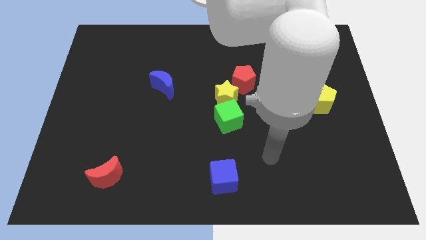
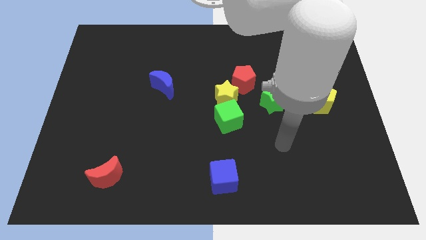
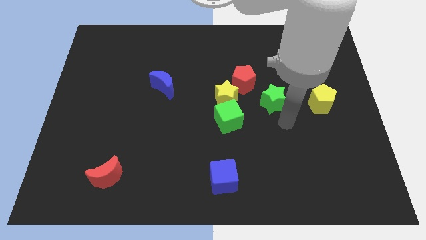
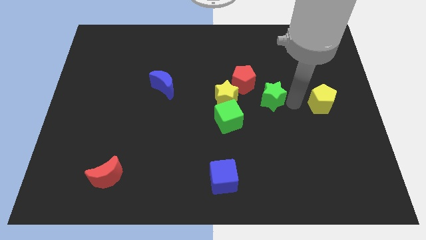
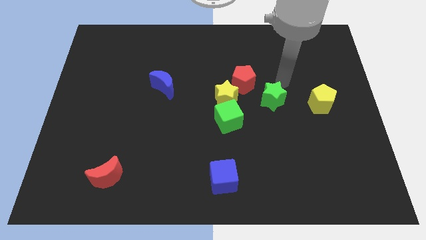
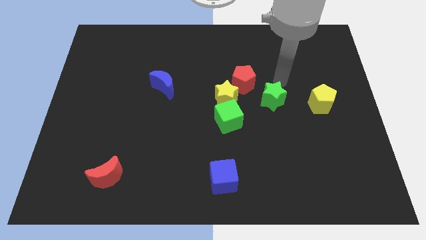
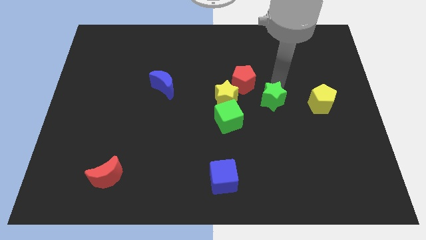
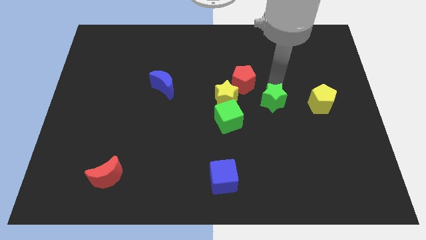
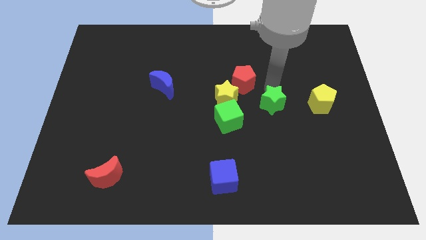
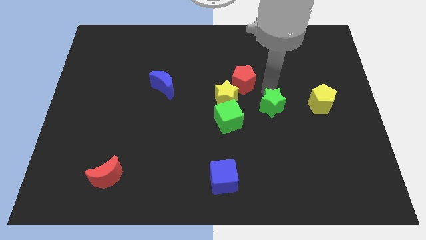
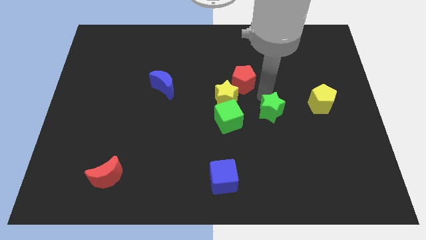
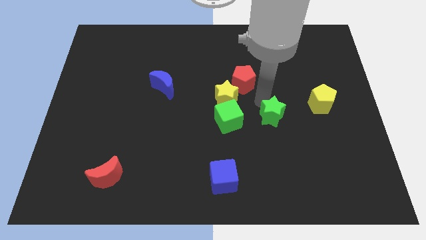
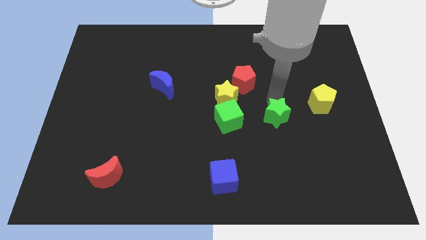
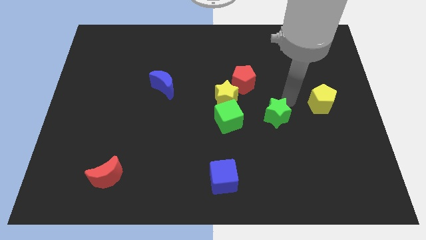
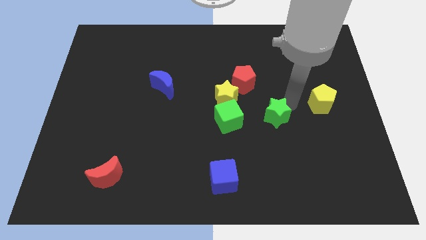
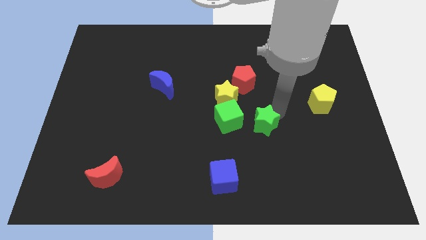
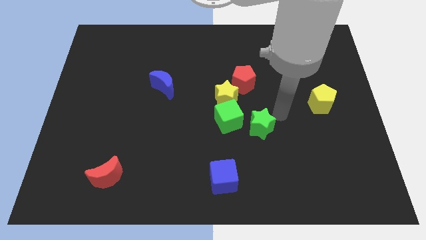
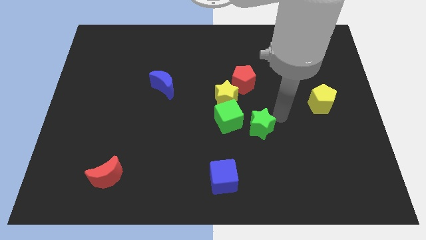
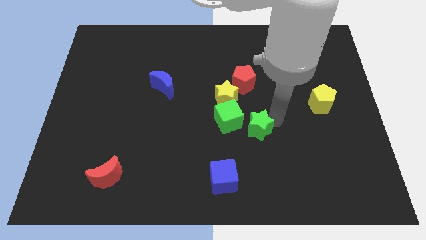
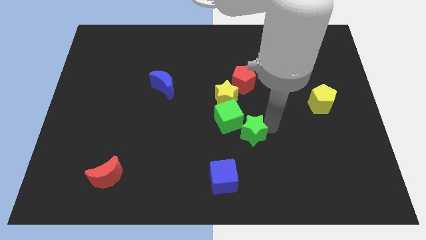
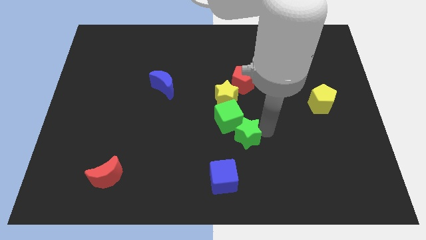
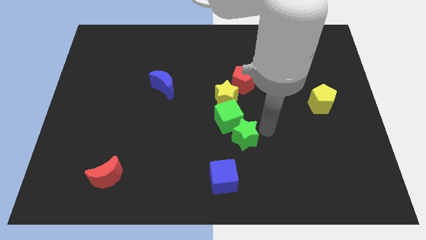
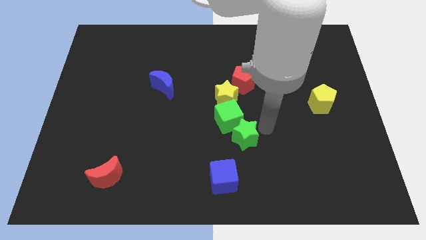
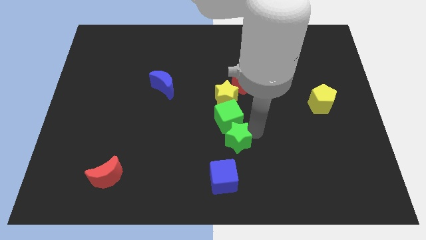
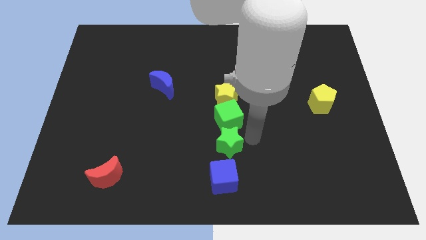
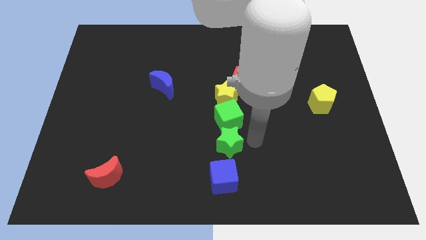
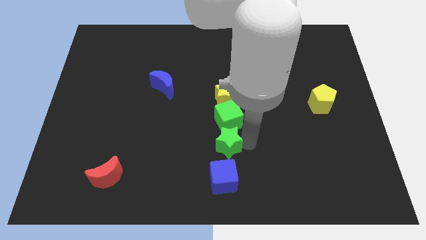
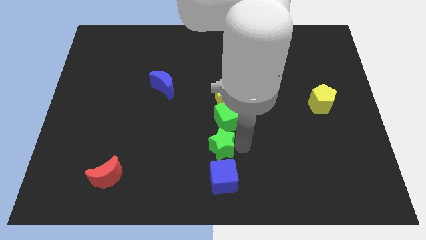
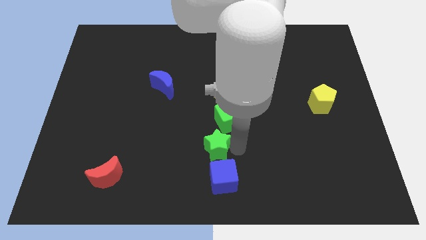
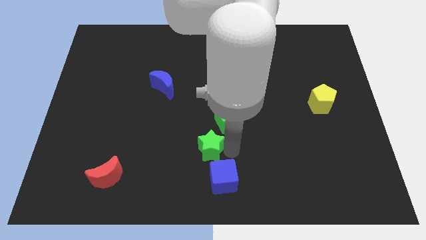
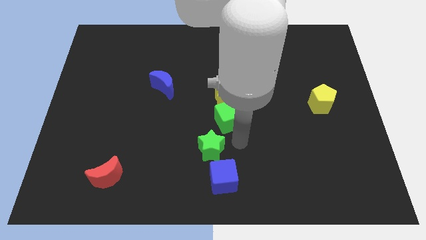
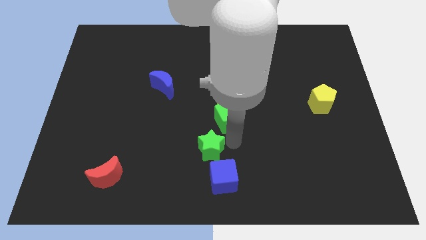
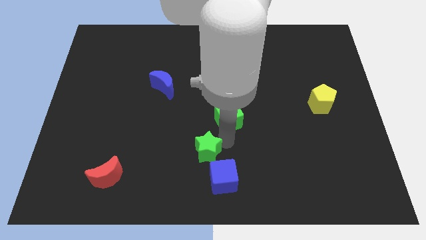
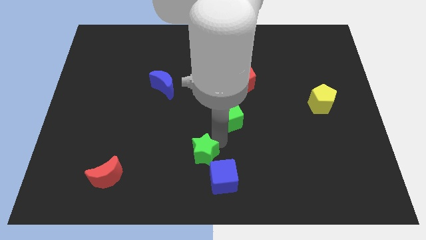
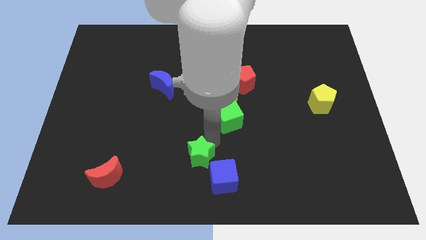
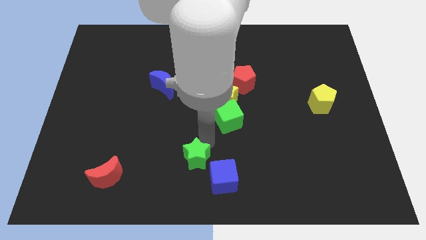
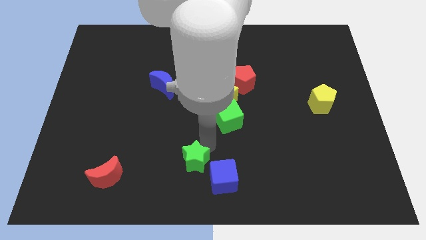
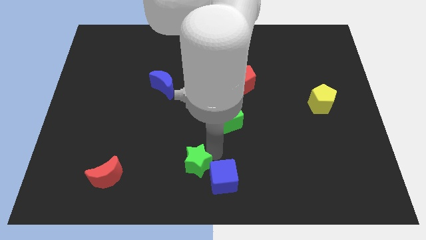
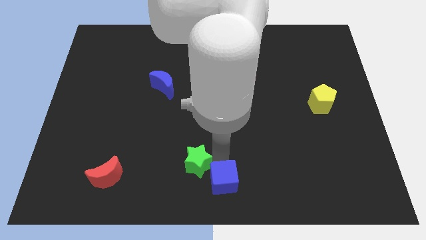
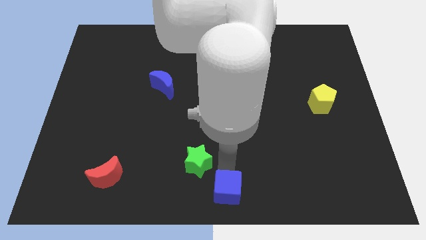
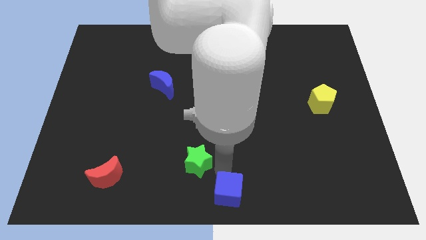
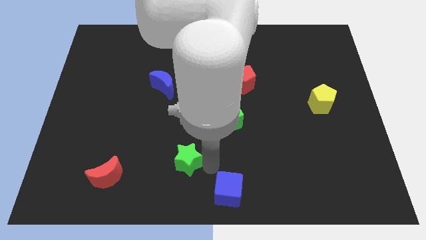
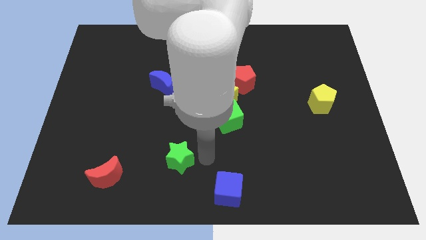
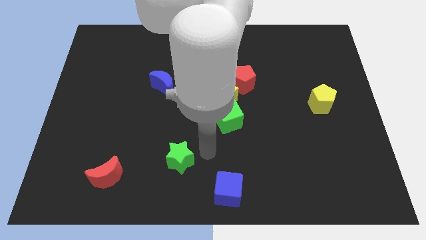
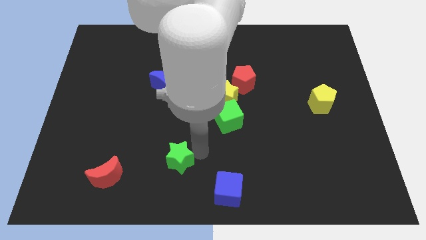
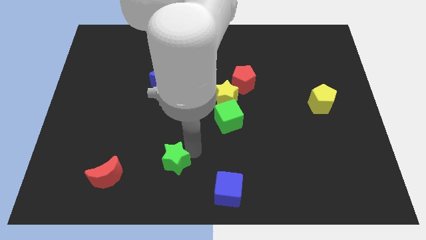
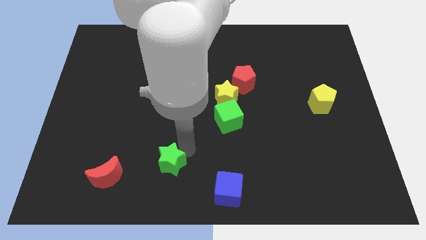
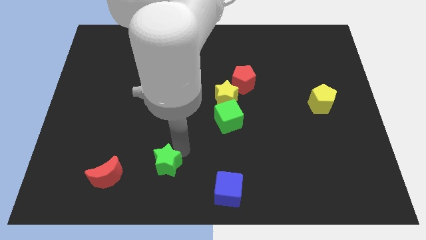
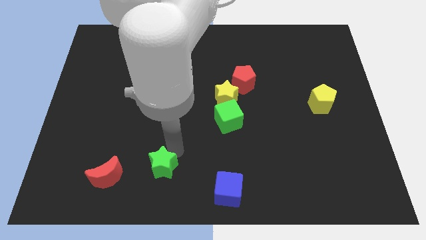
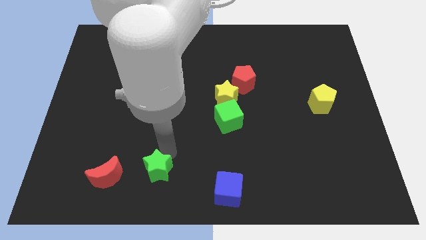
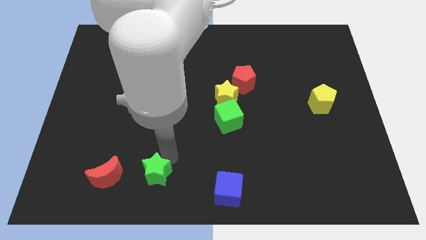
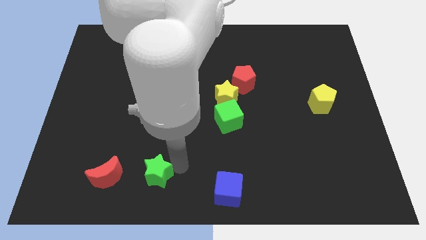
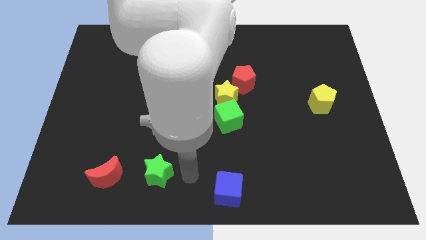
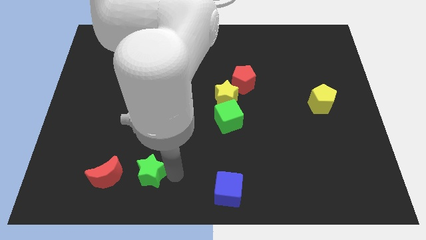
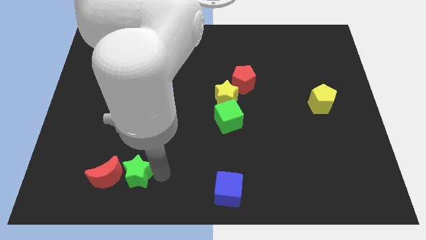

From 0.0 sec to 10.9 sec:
put the green star close to the red moon

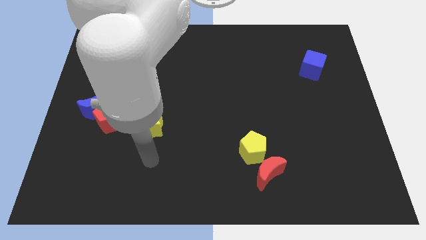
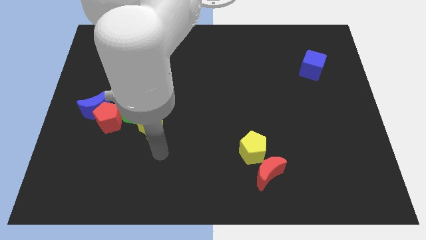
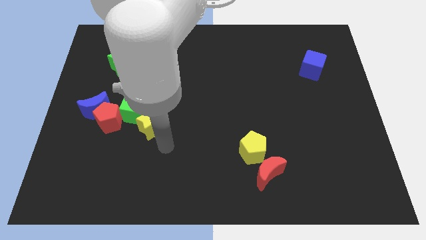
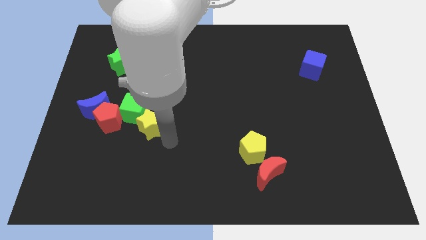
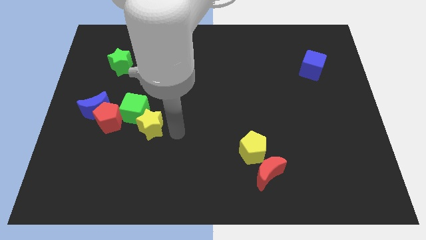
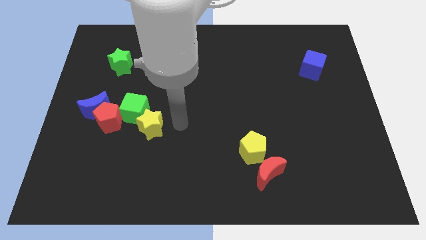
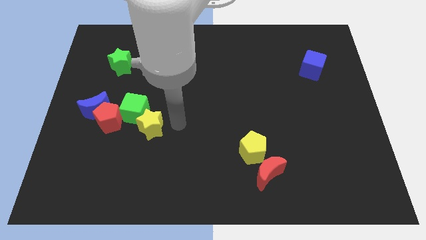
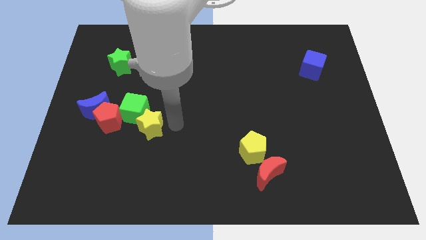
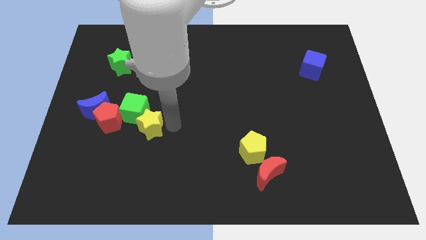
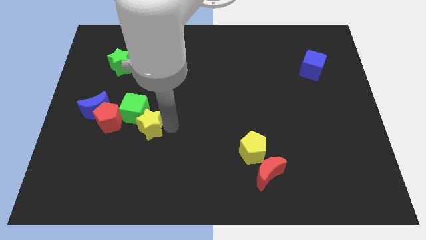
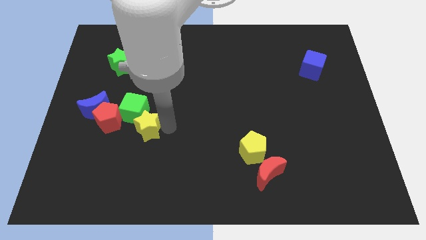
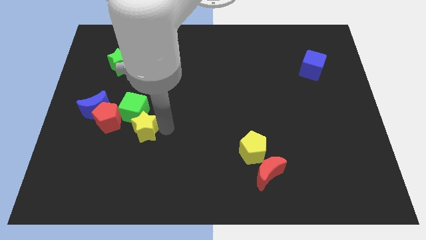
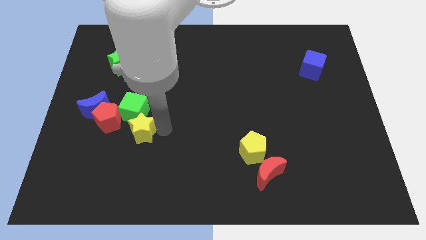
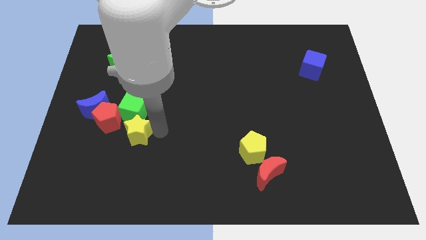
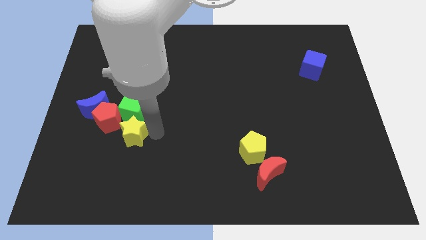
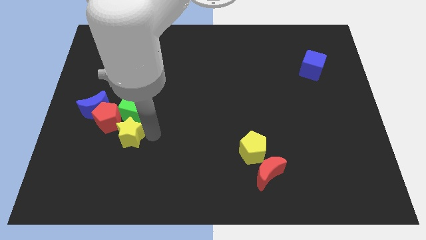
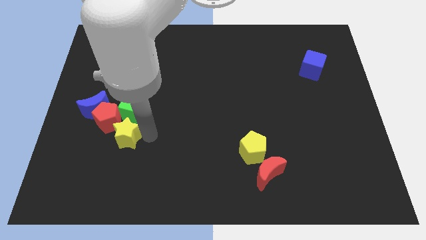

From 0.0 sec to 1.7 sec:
slide the yellow star close to the red pentagon

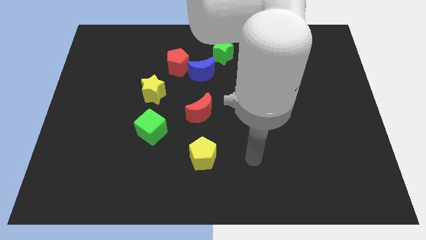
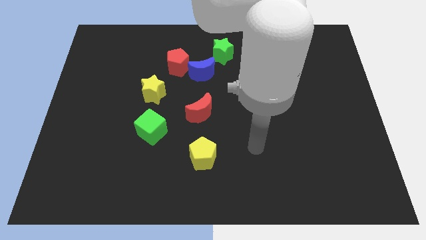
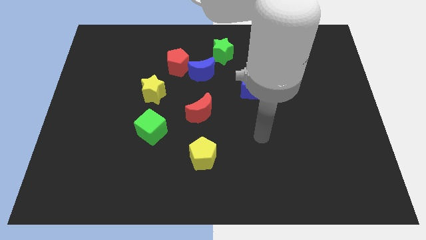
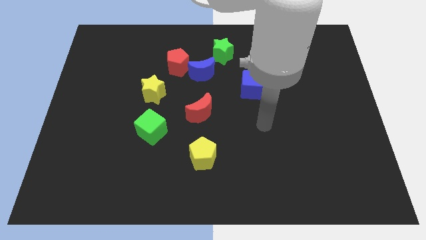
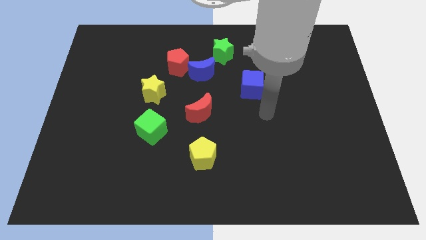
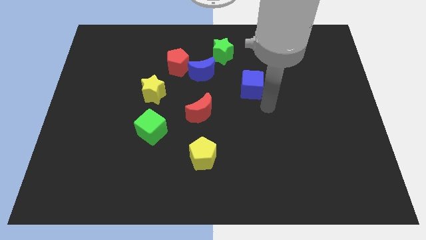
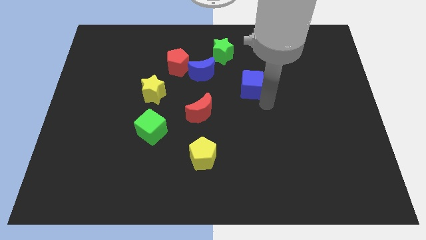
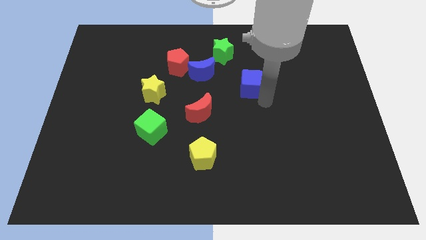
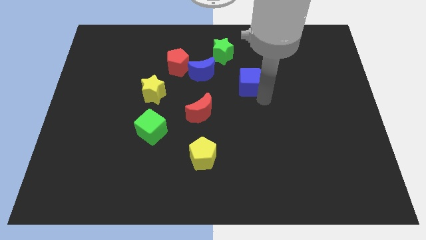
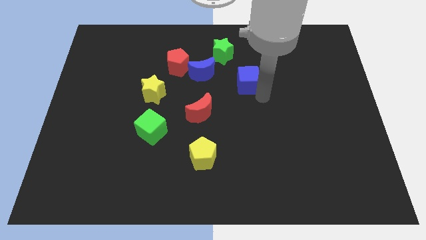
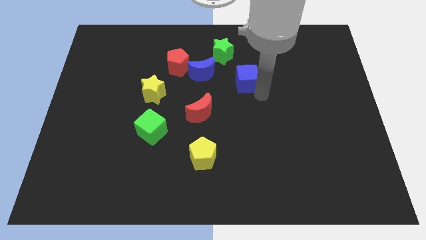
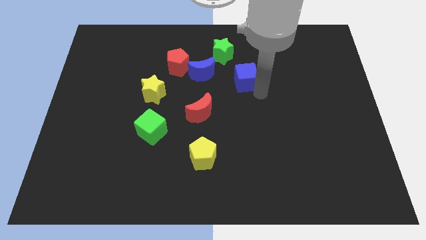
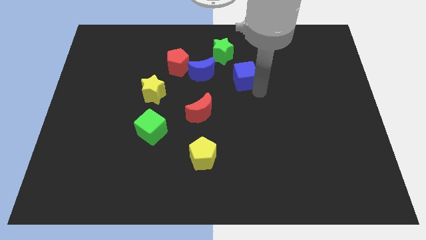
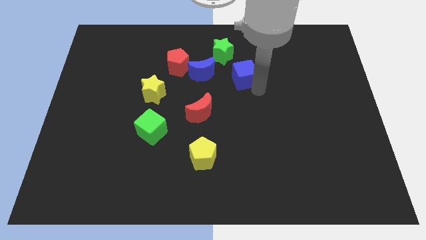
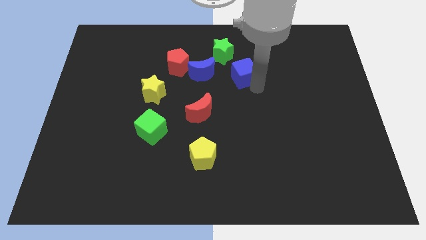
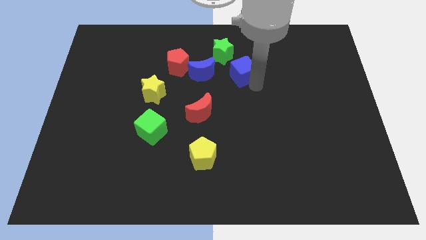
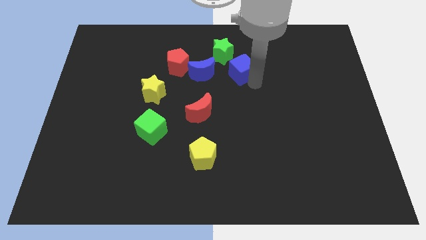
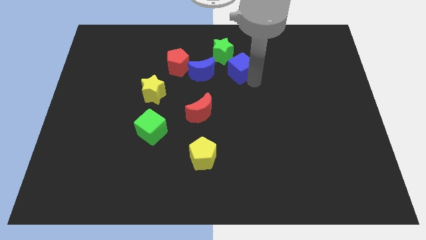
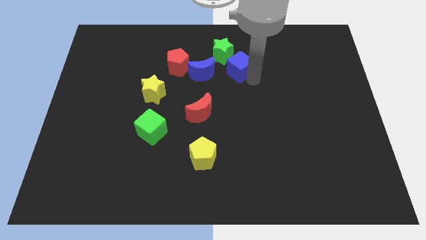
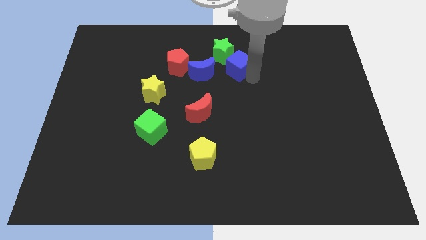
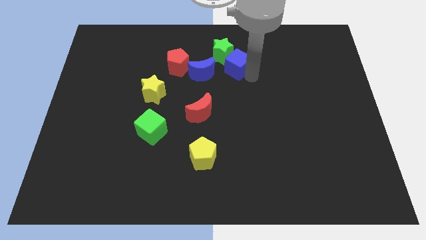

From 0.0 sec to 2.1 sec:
put the blue cube towards the green star
